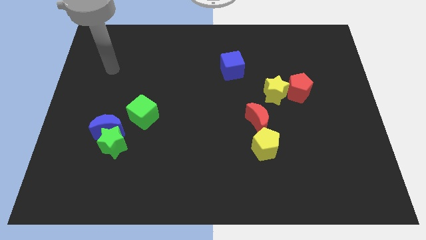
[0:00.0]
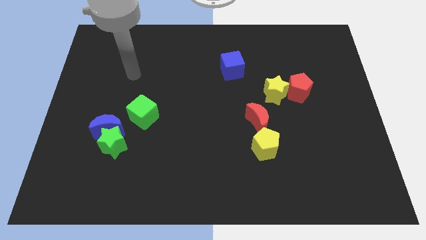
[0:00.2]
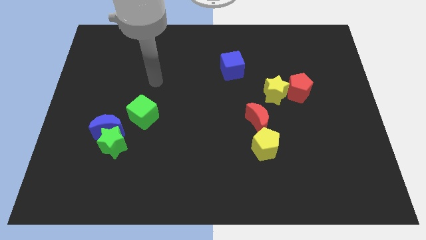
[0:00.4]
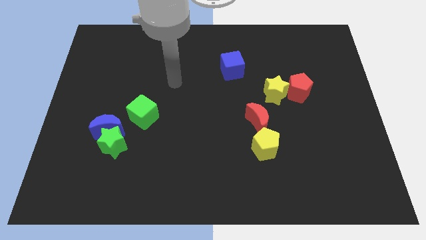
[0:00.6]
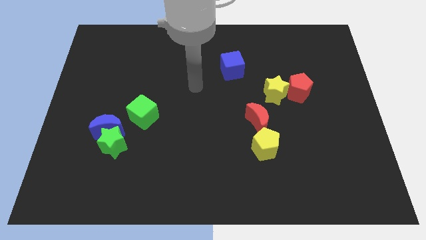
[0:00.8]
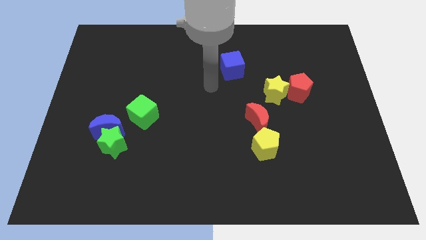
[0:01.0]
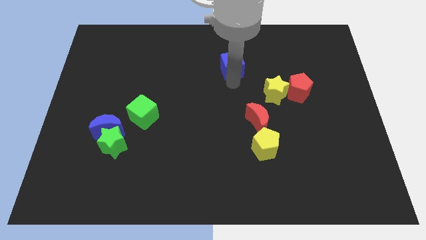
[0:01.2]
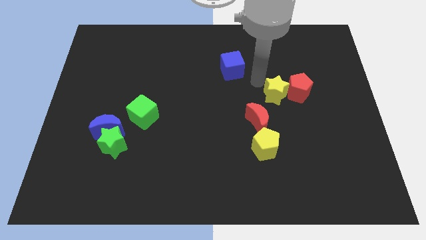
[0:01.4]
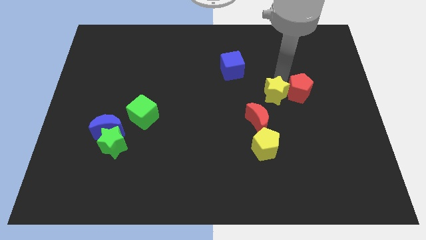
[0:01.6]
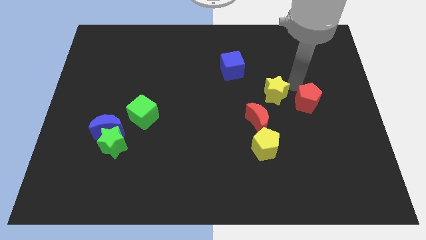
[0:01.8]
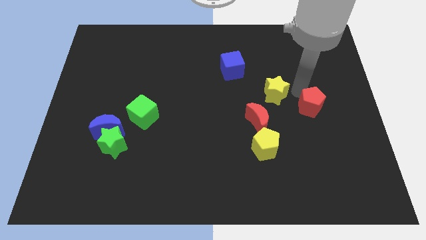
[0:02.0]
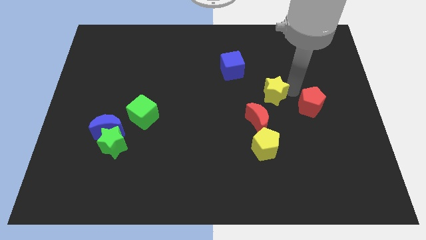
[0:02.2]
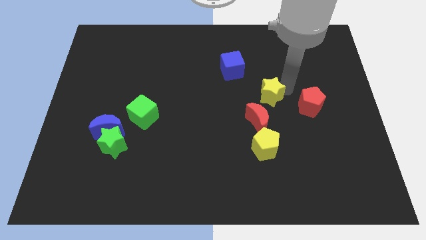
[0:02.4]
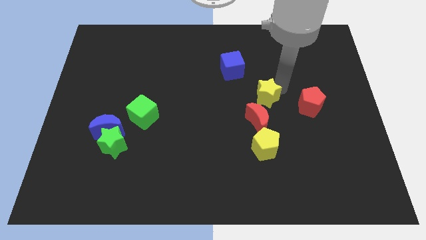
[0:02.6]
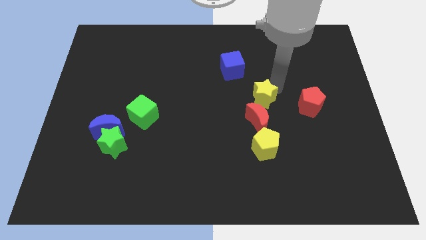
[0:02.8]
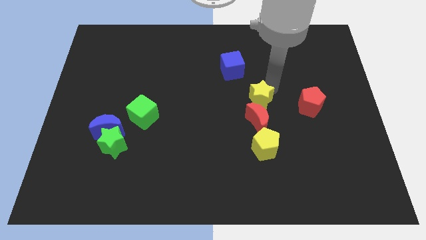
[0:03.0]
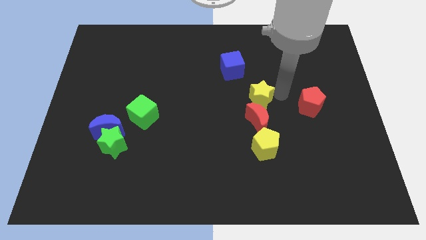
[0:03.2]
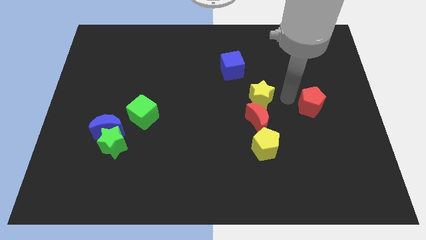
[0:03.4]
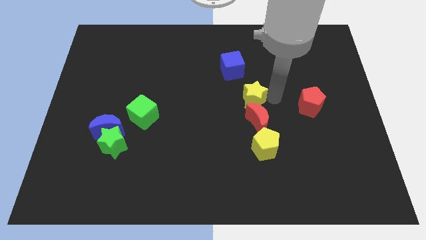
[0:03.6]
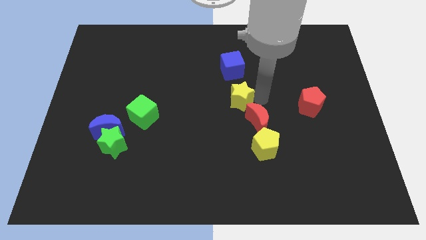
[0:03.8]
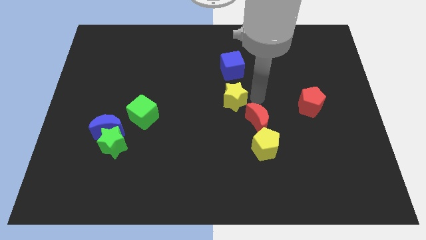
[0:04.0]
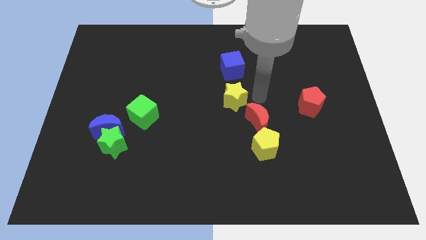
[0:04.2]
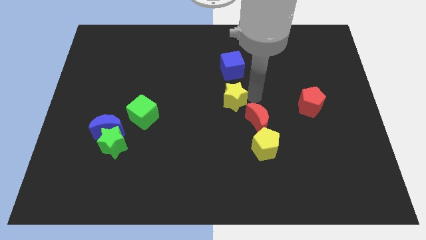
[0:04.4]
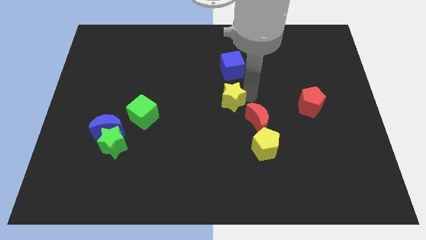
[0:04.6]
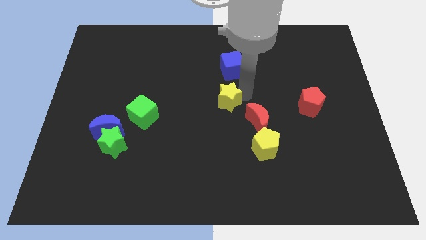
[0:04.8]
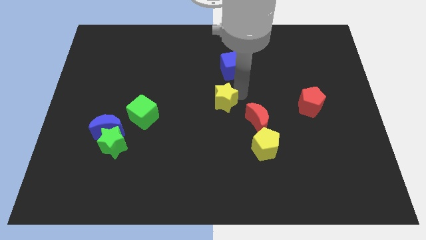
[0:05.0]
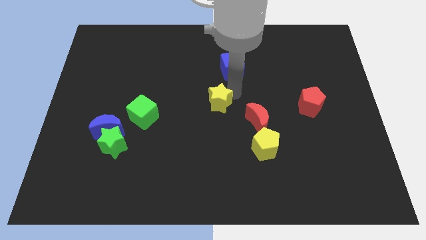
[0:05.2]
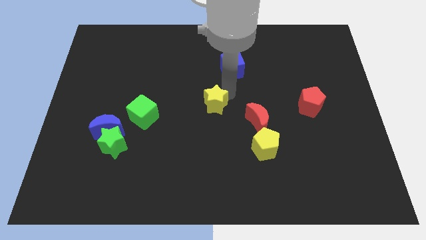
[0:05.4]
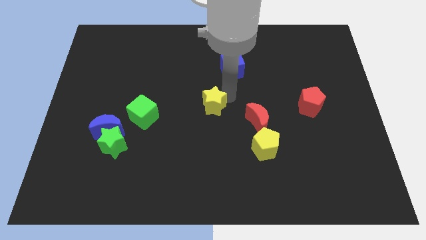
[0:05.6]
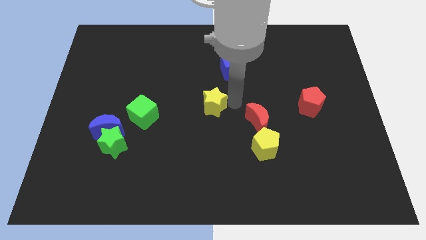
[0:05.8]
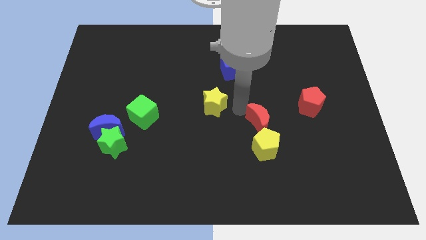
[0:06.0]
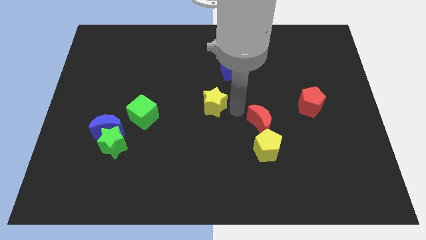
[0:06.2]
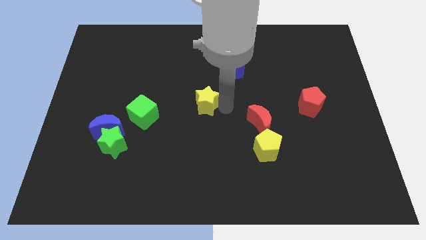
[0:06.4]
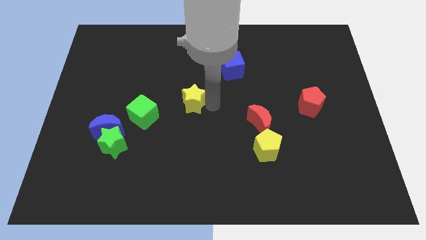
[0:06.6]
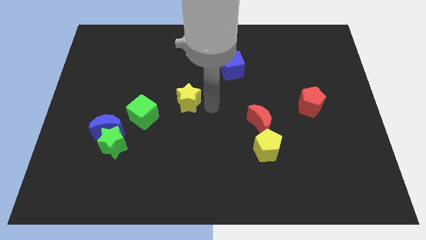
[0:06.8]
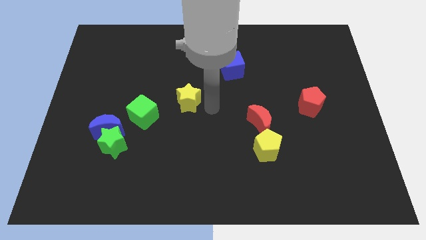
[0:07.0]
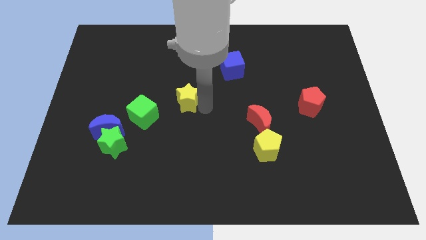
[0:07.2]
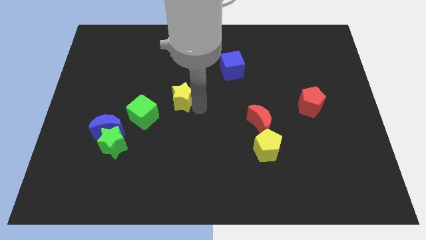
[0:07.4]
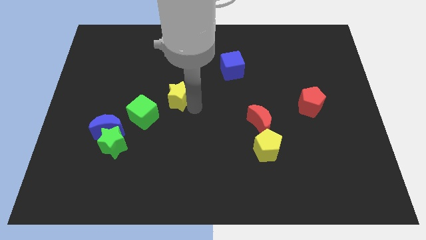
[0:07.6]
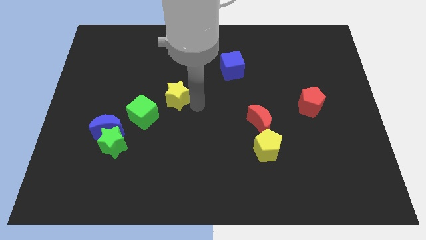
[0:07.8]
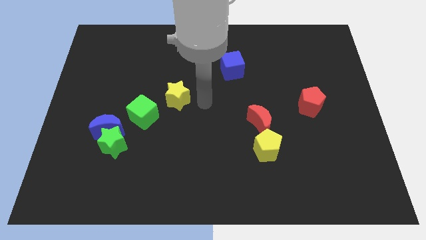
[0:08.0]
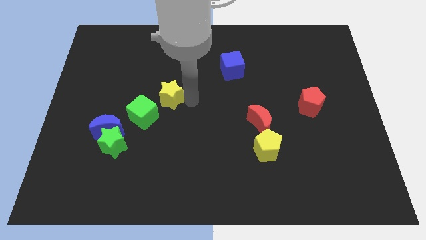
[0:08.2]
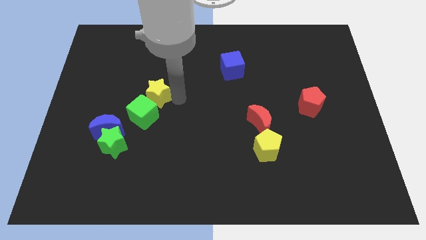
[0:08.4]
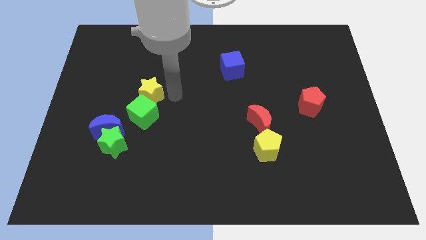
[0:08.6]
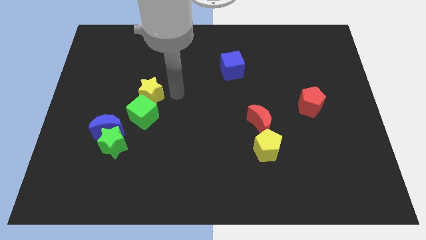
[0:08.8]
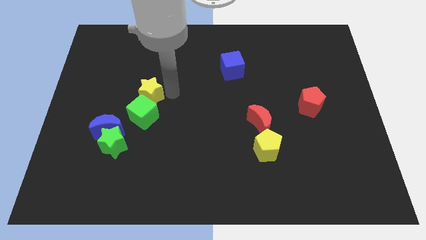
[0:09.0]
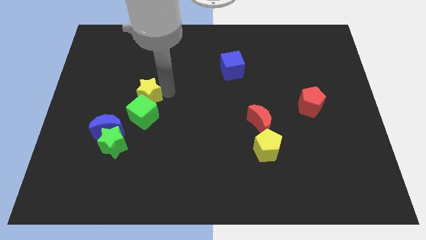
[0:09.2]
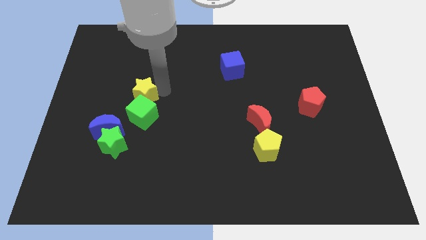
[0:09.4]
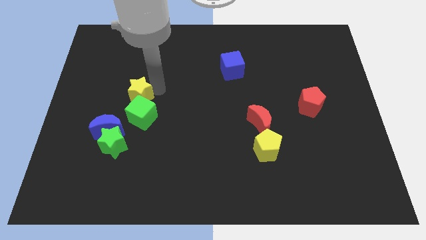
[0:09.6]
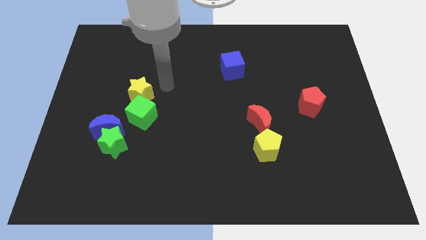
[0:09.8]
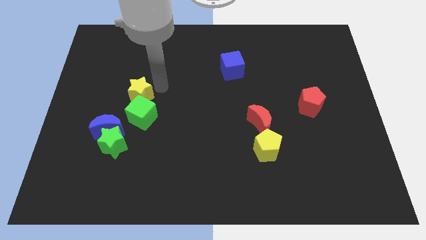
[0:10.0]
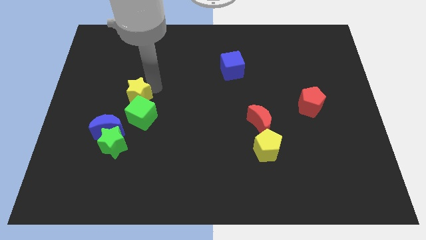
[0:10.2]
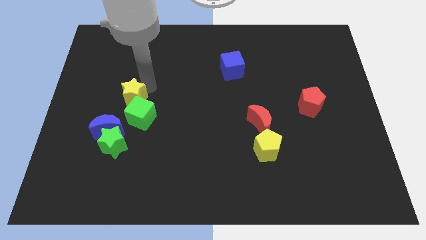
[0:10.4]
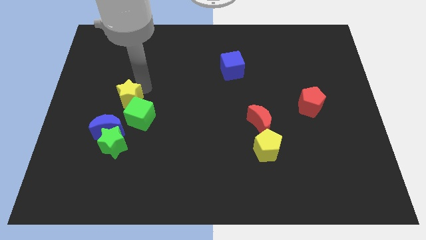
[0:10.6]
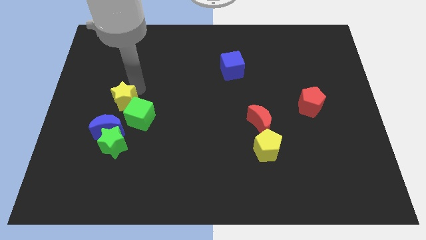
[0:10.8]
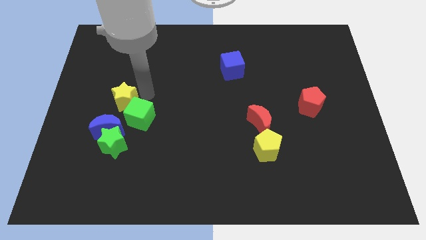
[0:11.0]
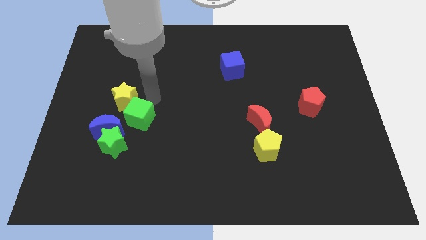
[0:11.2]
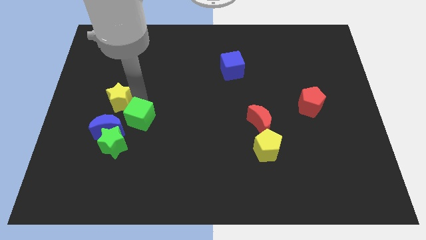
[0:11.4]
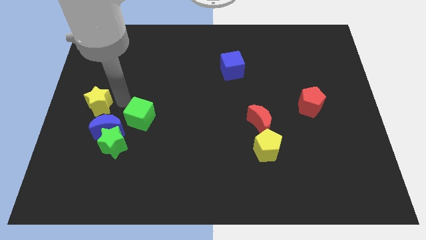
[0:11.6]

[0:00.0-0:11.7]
put the yellow star to the left side of the board
